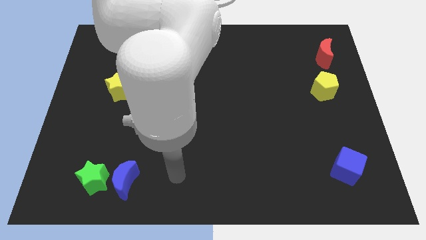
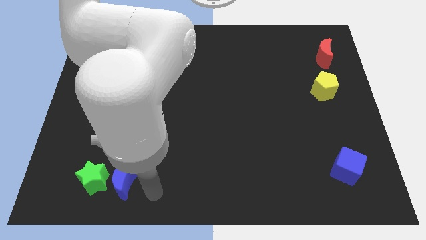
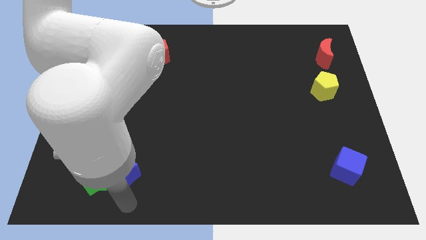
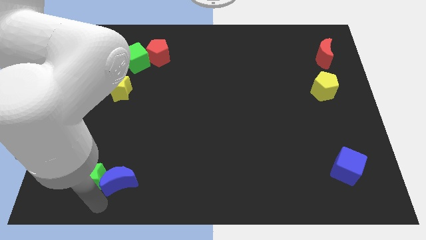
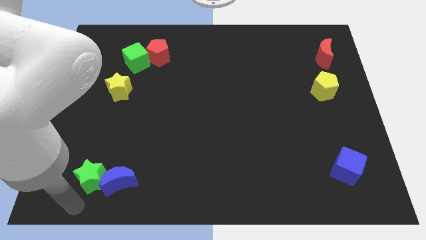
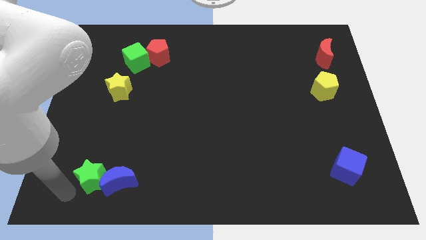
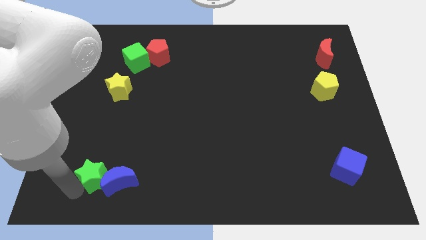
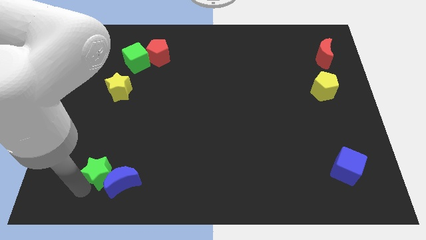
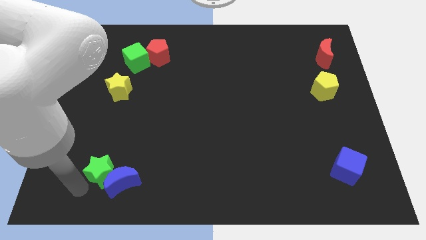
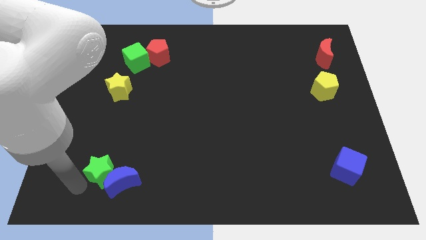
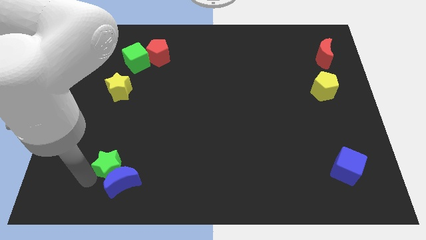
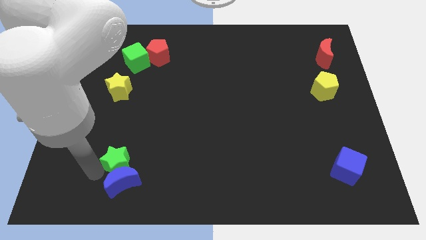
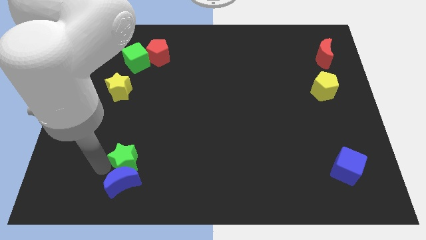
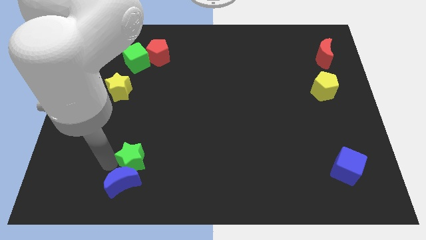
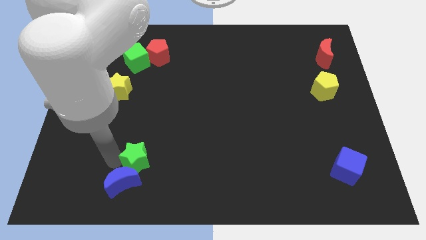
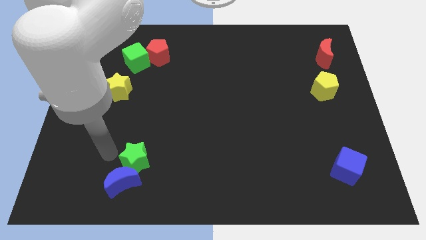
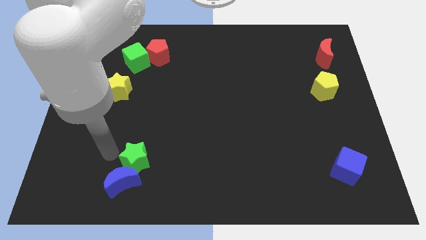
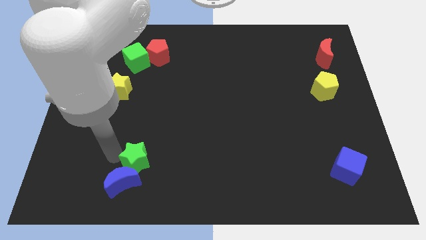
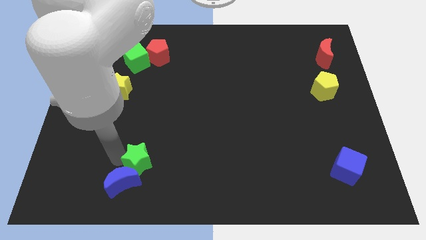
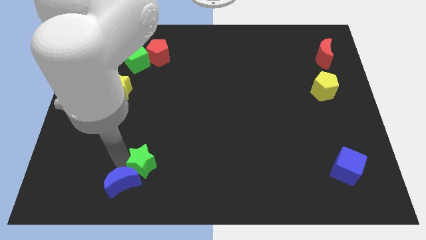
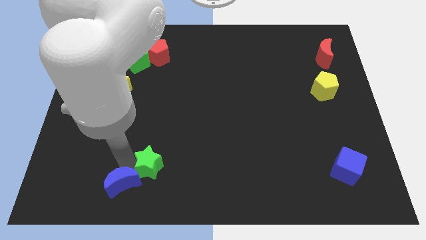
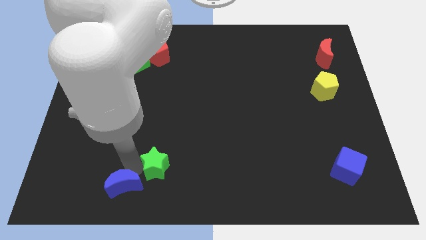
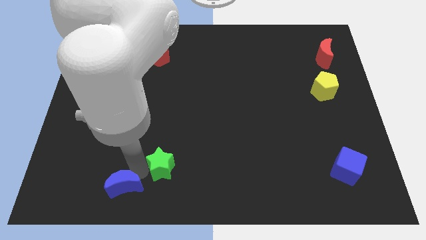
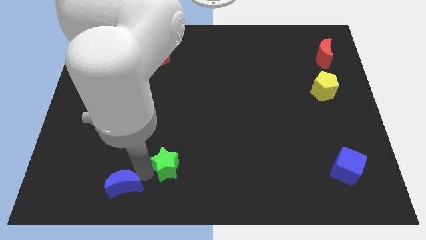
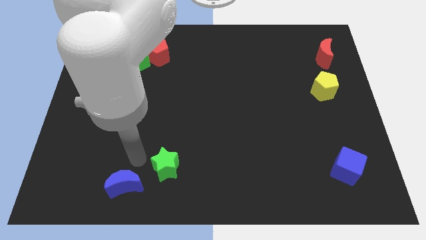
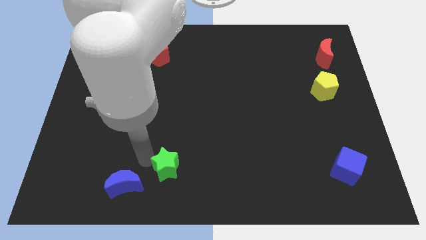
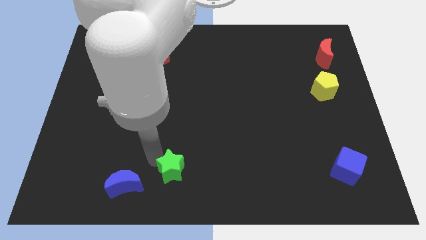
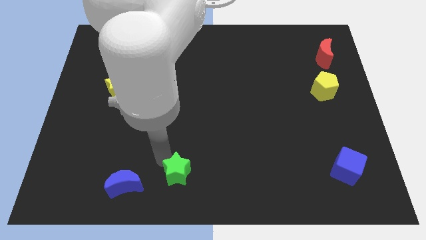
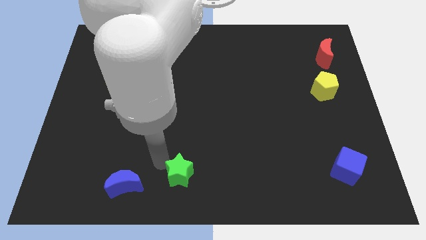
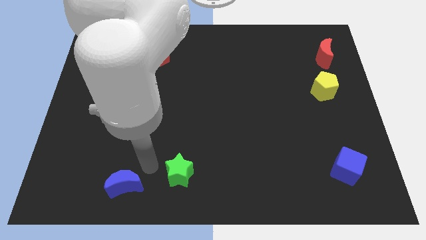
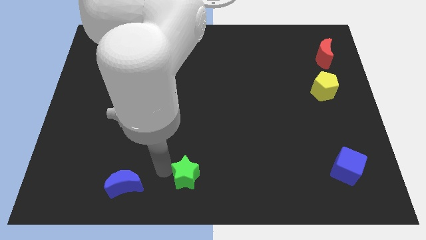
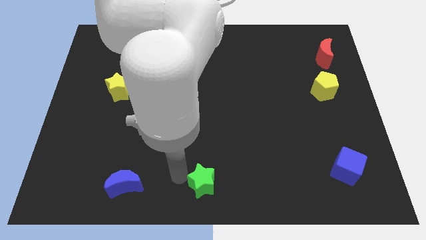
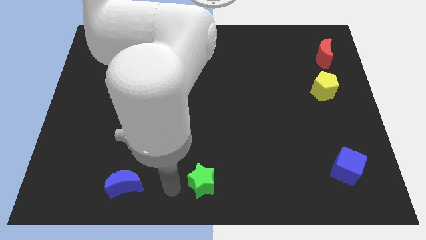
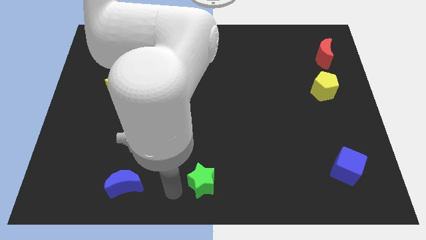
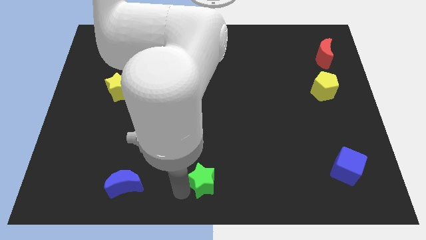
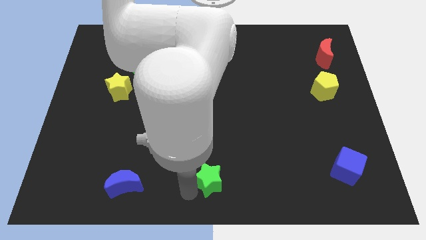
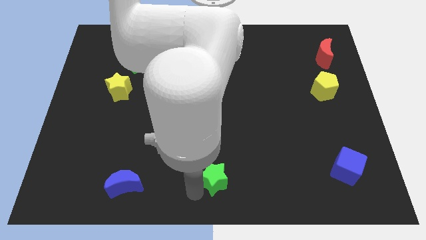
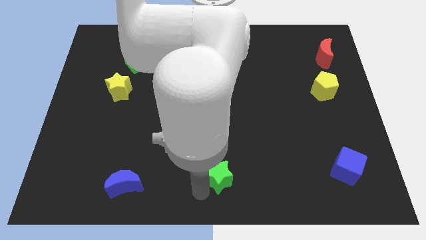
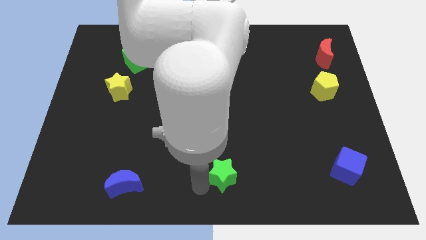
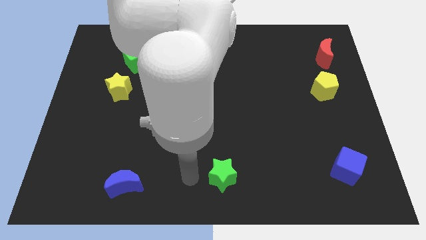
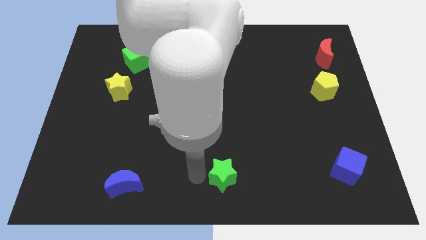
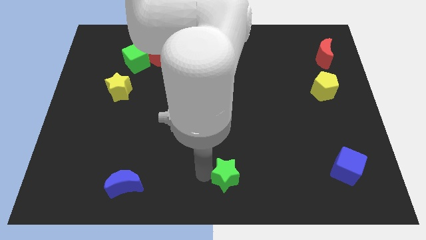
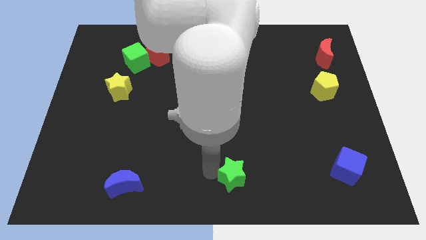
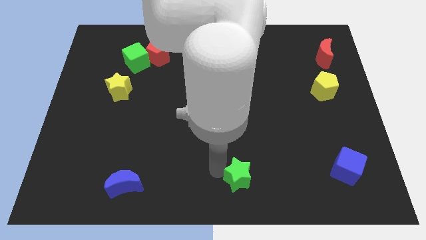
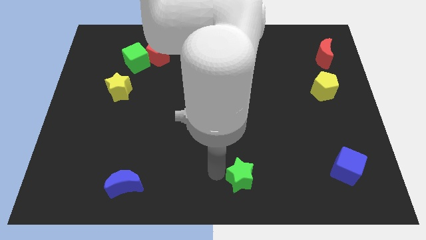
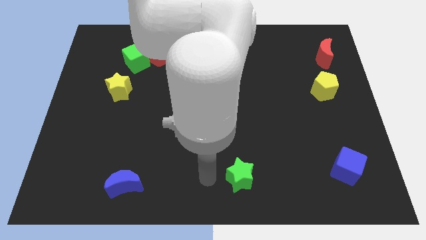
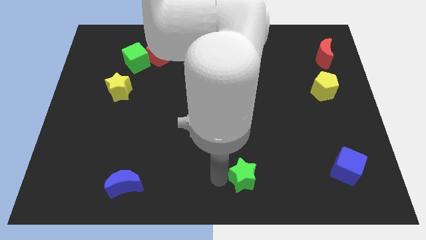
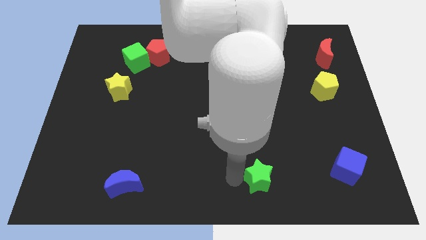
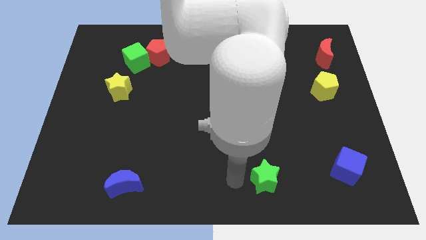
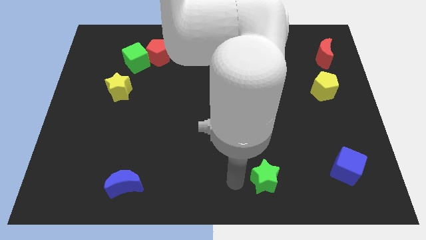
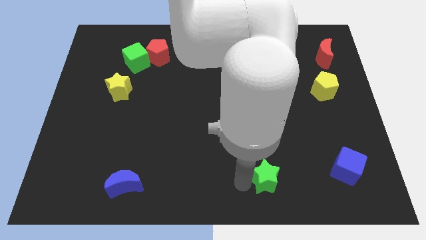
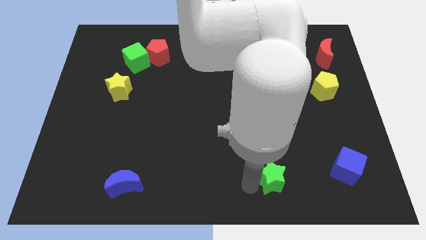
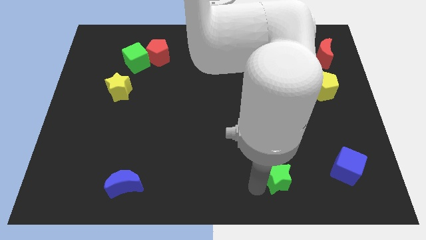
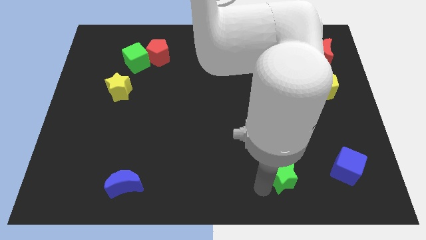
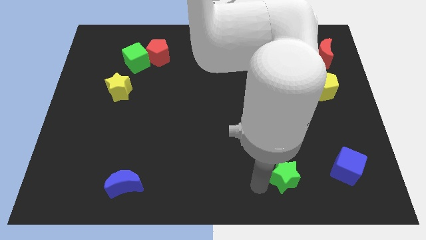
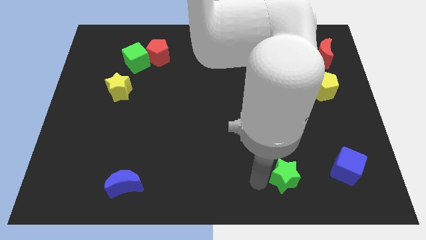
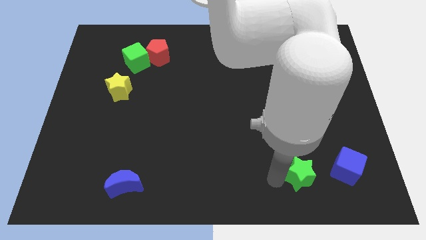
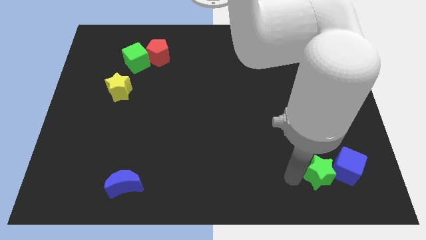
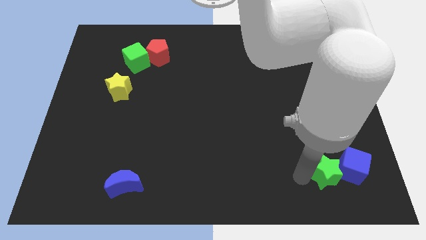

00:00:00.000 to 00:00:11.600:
slide the green star next to the blue cube

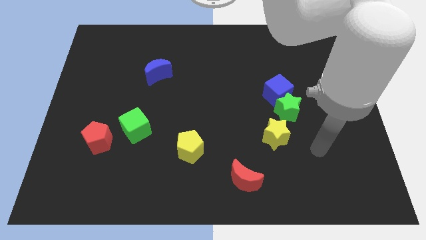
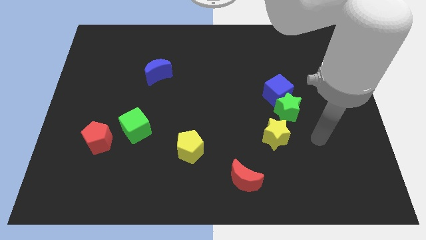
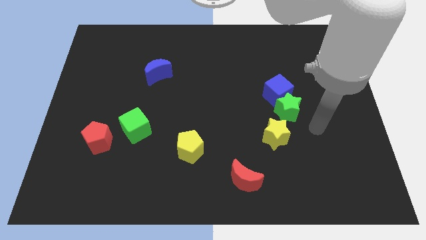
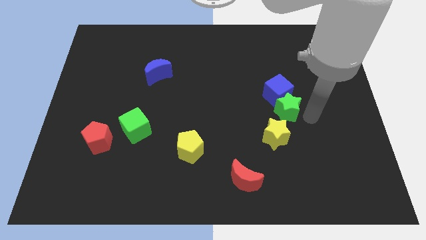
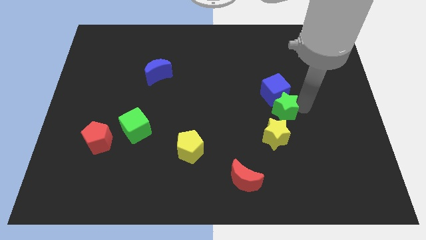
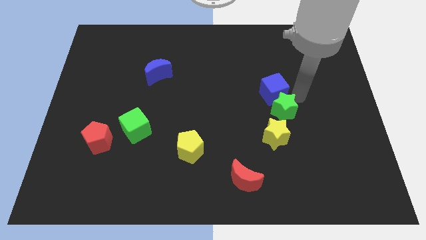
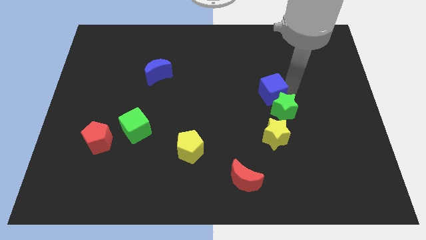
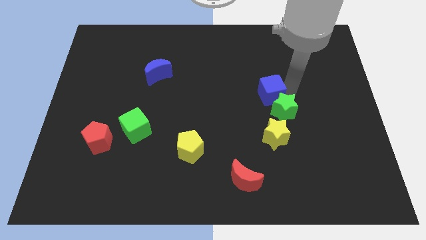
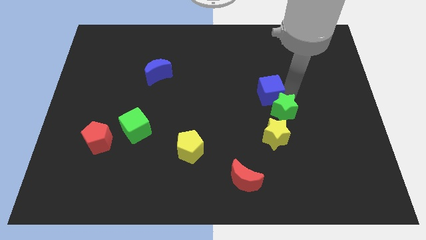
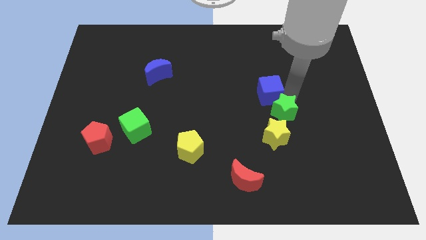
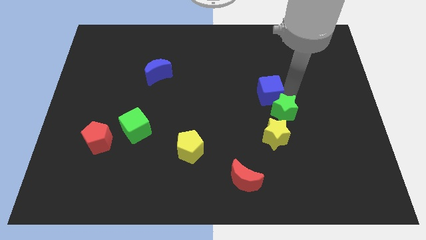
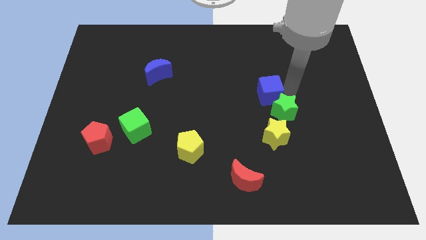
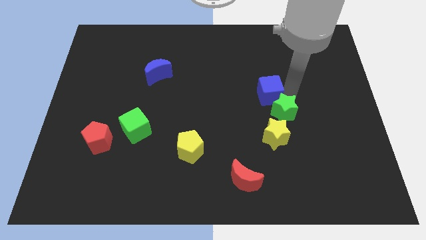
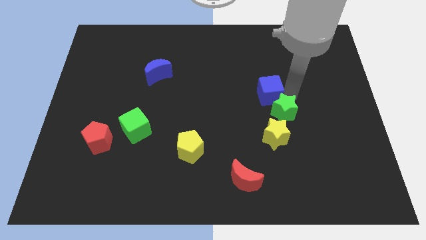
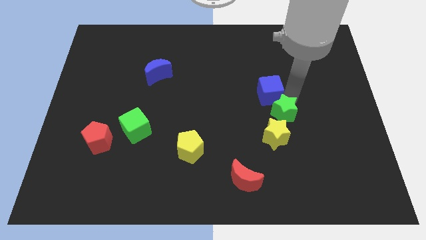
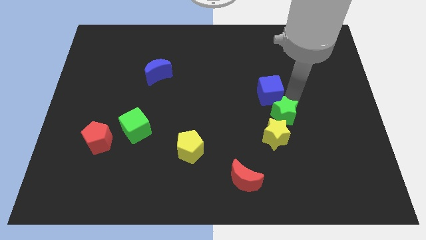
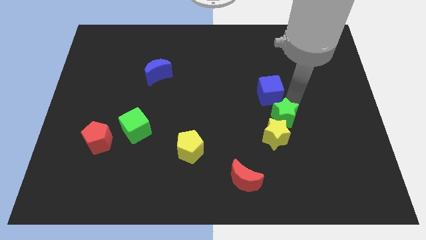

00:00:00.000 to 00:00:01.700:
put the green star towards the yellow star
